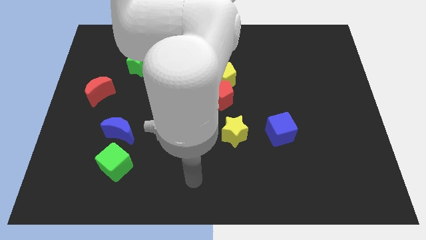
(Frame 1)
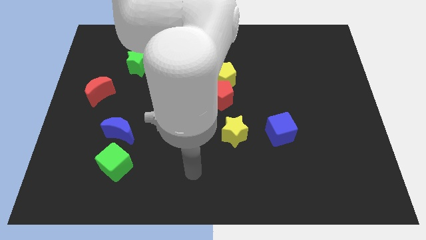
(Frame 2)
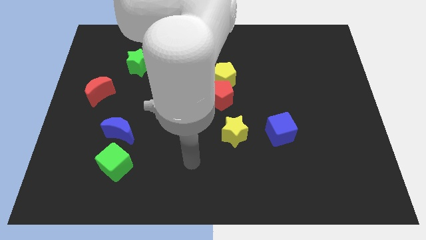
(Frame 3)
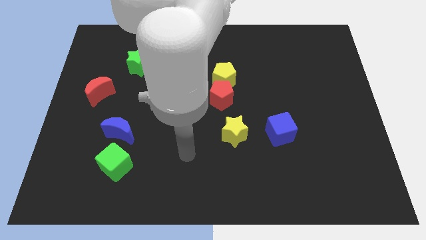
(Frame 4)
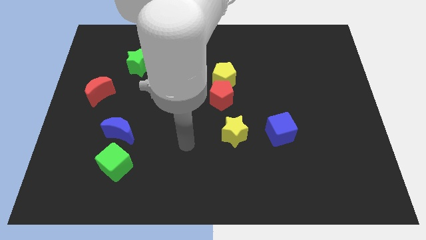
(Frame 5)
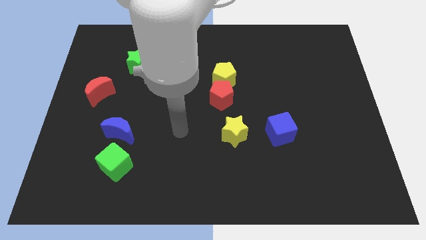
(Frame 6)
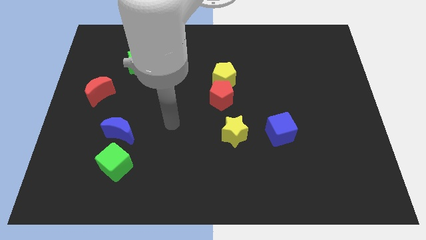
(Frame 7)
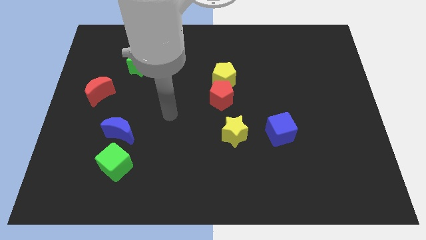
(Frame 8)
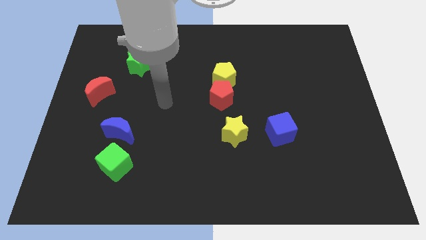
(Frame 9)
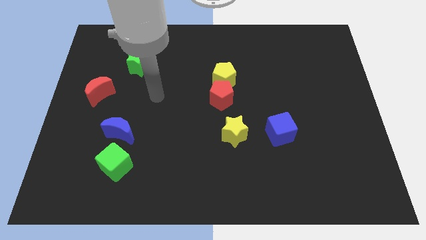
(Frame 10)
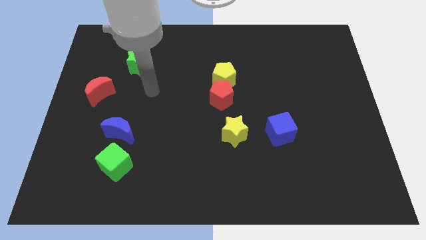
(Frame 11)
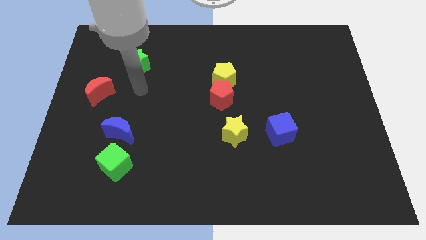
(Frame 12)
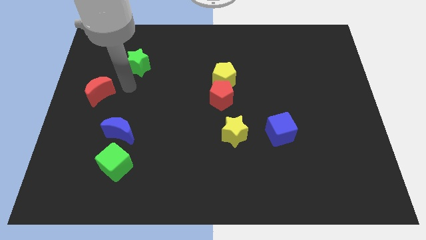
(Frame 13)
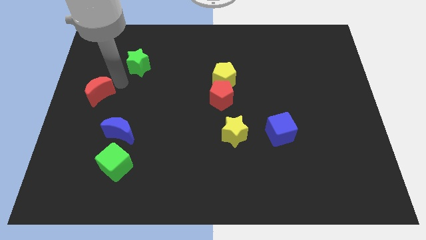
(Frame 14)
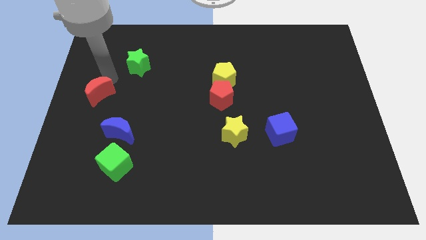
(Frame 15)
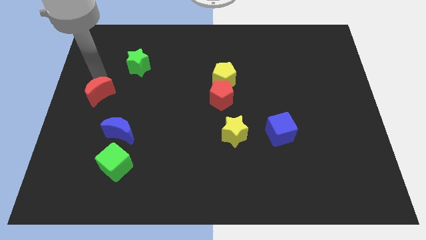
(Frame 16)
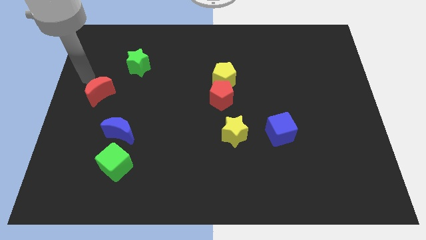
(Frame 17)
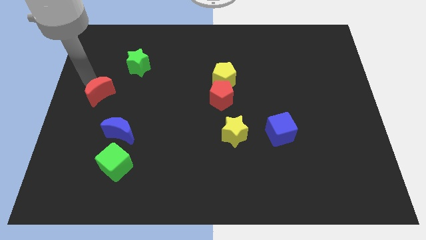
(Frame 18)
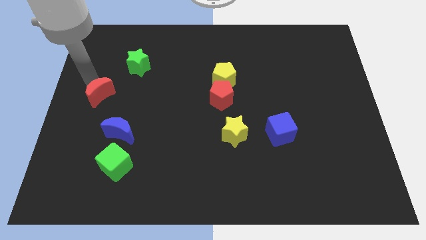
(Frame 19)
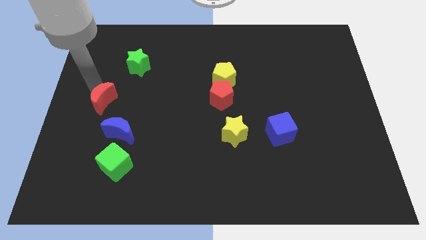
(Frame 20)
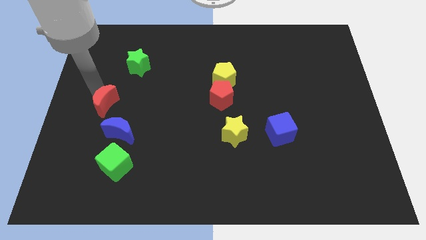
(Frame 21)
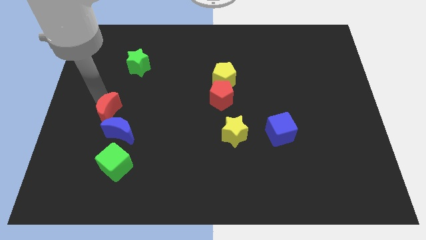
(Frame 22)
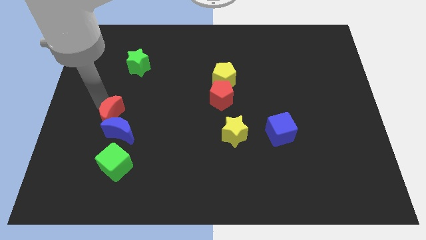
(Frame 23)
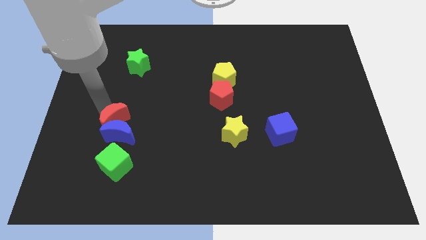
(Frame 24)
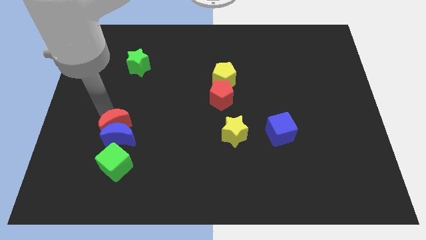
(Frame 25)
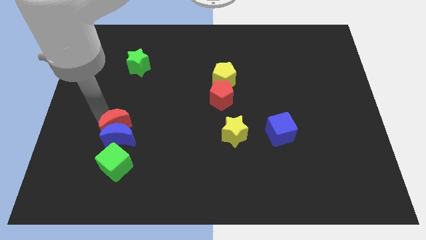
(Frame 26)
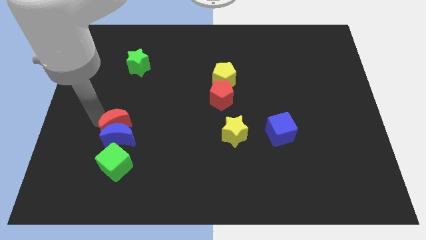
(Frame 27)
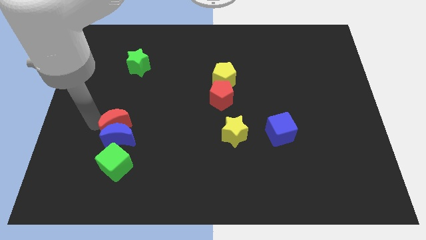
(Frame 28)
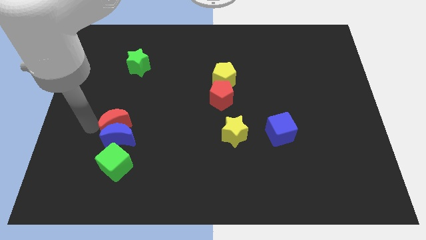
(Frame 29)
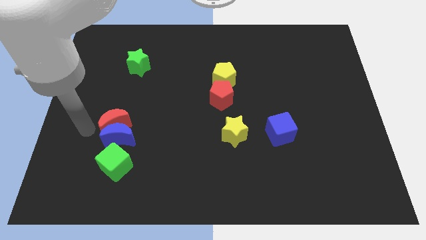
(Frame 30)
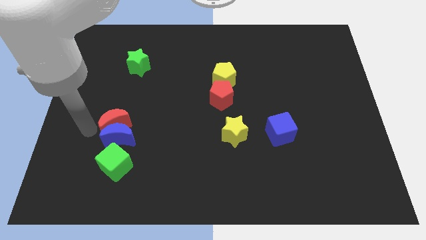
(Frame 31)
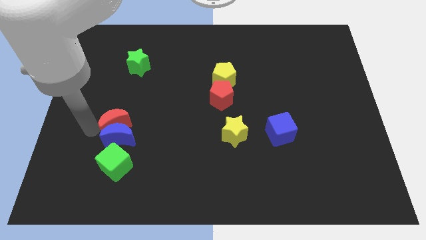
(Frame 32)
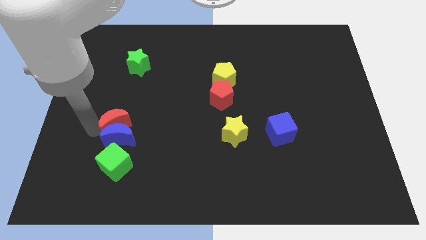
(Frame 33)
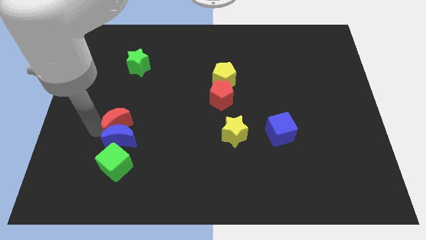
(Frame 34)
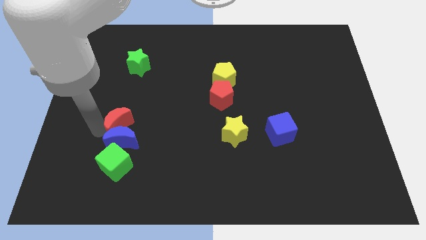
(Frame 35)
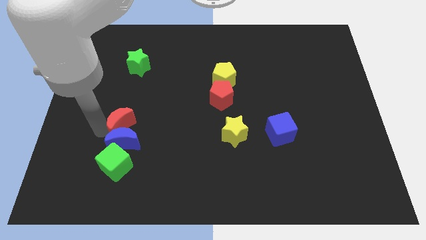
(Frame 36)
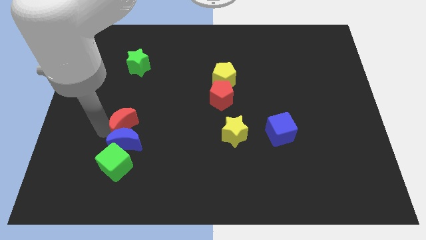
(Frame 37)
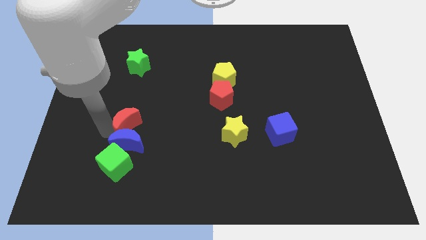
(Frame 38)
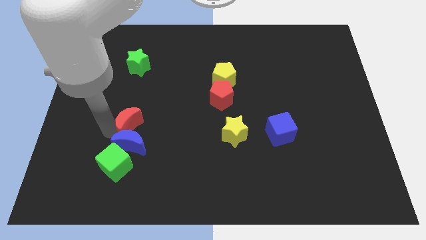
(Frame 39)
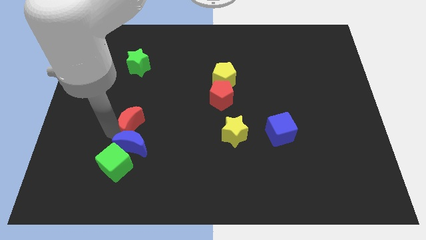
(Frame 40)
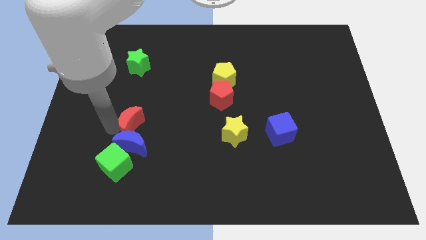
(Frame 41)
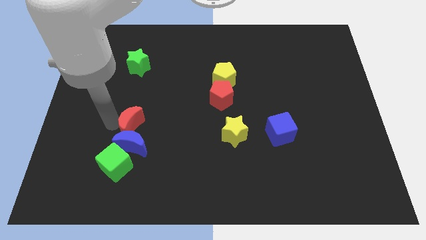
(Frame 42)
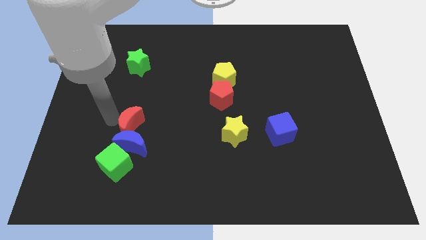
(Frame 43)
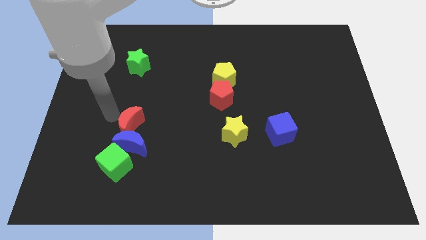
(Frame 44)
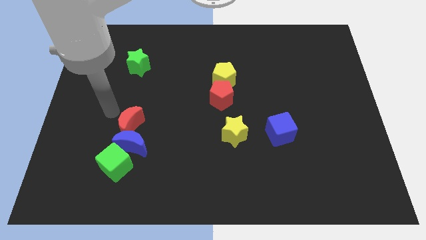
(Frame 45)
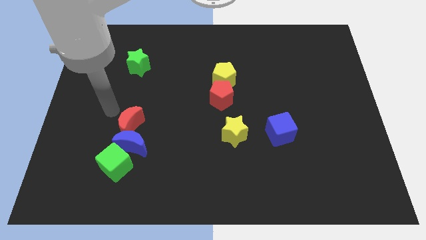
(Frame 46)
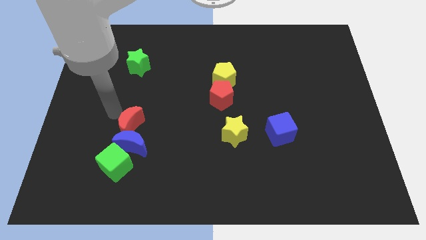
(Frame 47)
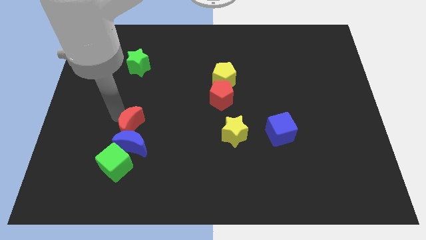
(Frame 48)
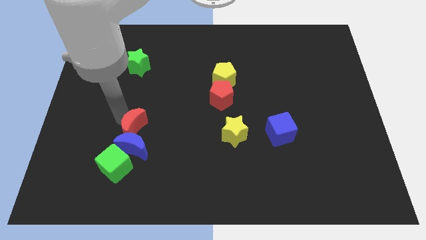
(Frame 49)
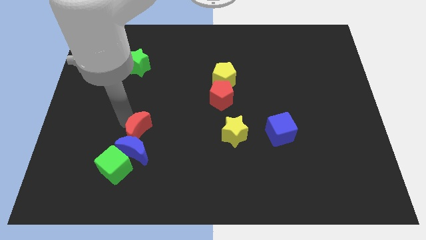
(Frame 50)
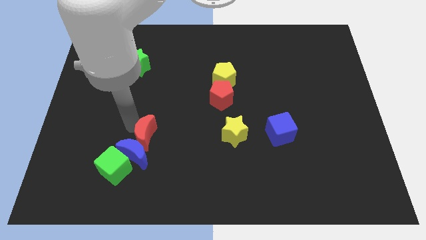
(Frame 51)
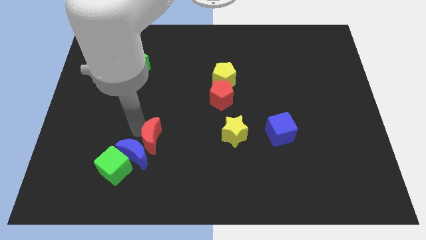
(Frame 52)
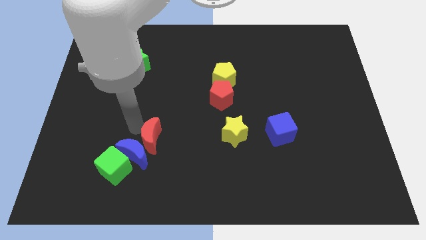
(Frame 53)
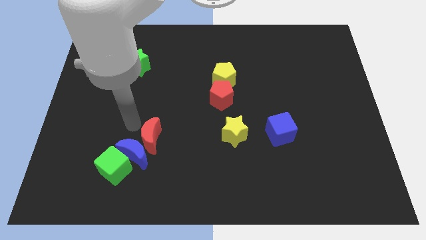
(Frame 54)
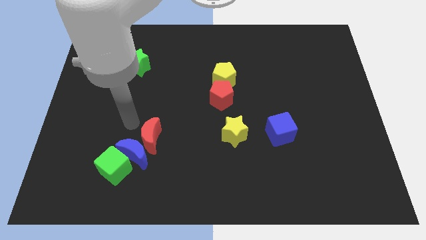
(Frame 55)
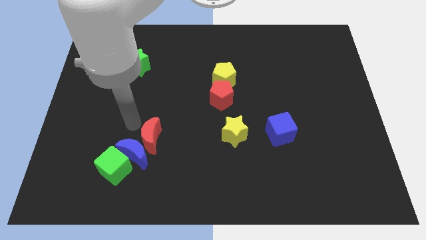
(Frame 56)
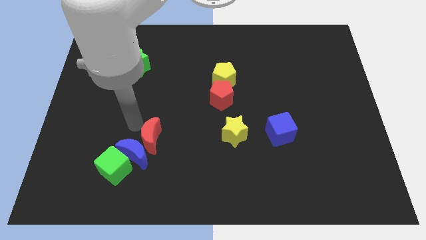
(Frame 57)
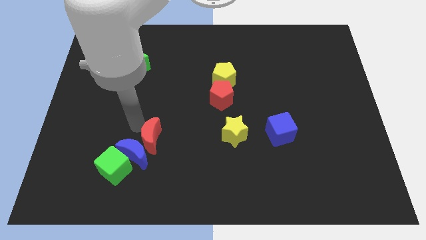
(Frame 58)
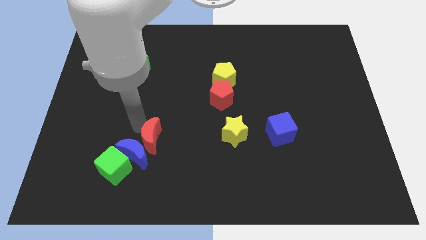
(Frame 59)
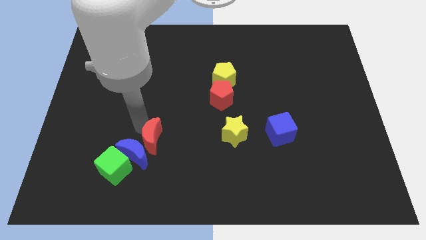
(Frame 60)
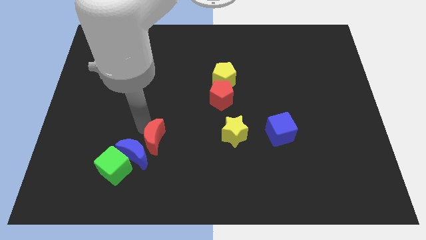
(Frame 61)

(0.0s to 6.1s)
move the red moon downwards and then to the right

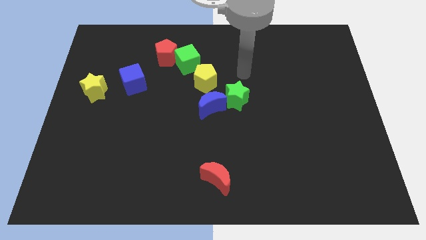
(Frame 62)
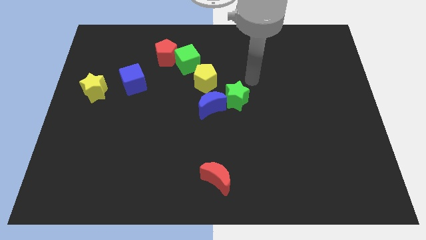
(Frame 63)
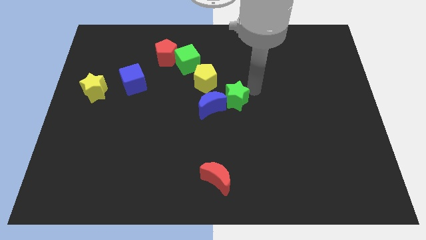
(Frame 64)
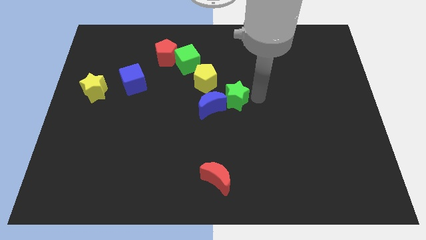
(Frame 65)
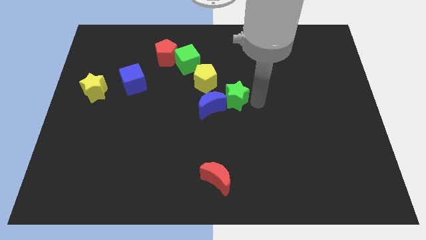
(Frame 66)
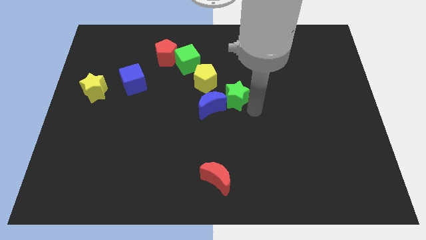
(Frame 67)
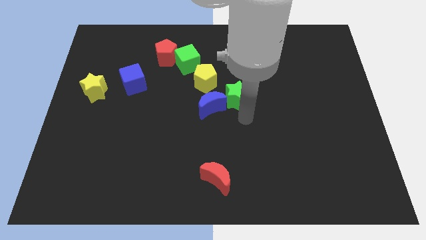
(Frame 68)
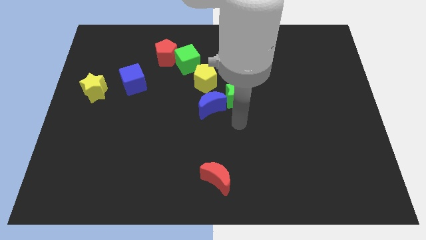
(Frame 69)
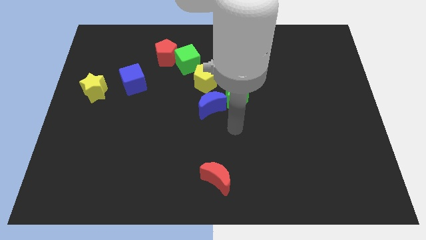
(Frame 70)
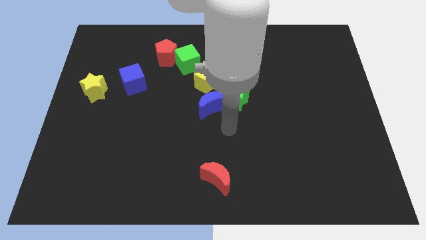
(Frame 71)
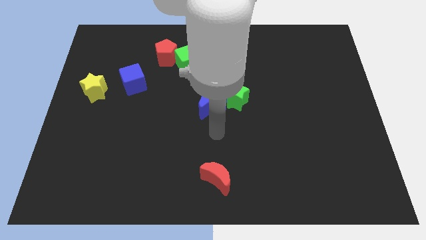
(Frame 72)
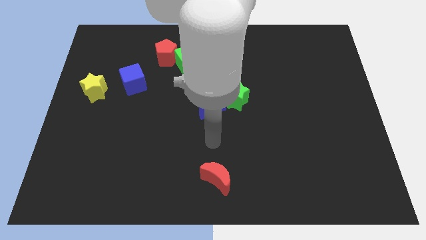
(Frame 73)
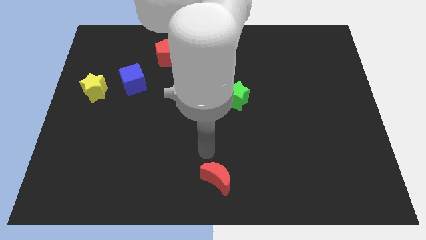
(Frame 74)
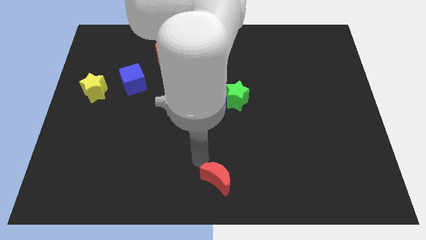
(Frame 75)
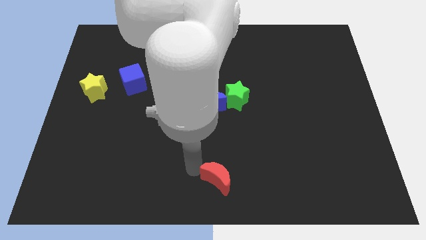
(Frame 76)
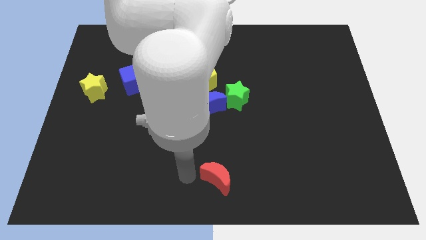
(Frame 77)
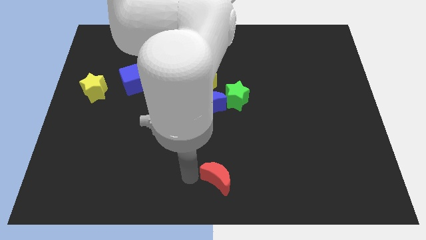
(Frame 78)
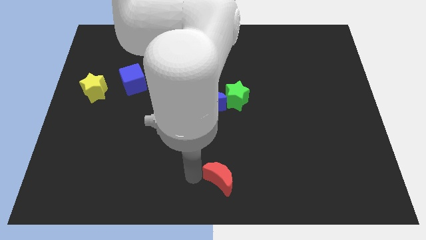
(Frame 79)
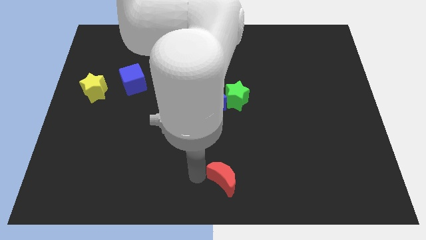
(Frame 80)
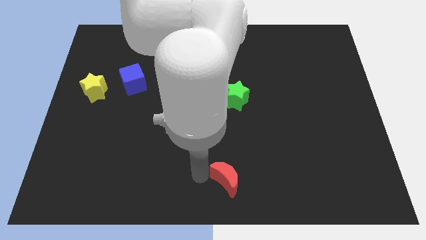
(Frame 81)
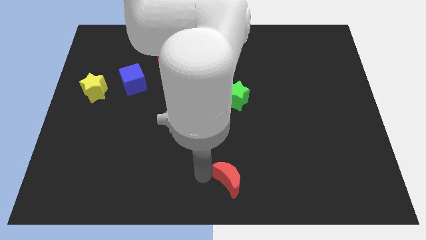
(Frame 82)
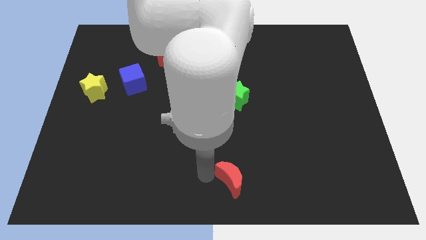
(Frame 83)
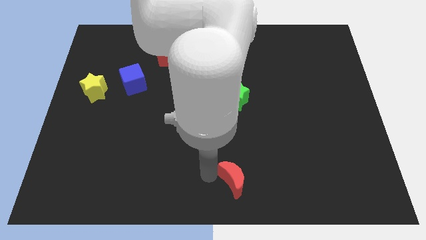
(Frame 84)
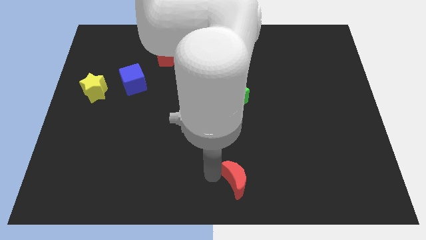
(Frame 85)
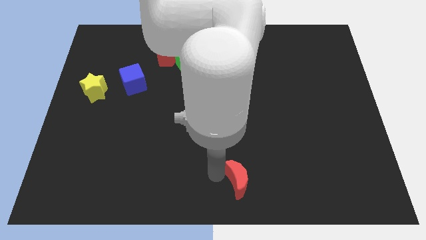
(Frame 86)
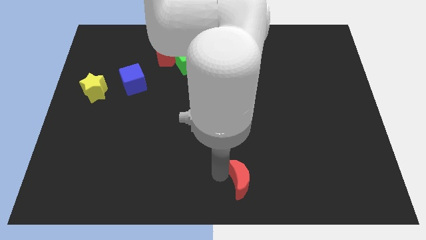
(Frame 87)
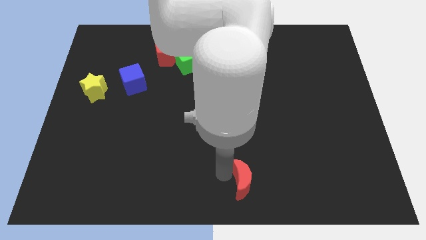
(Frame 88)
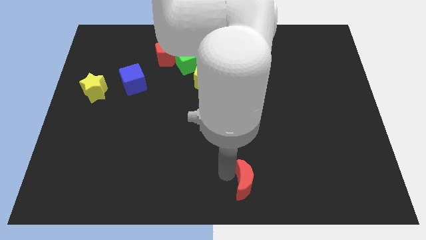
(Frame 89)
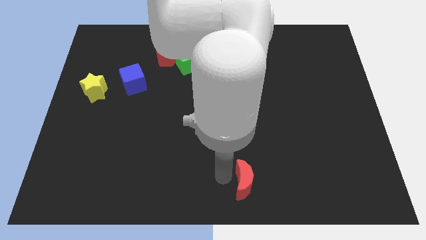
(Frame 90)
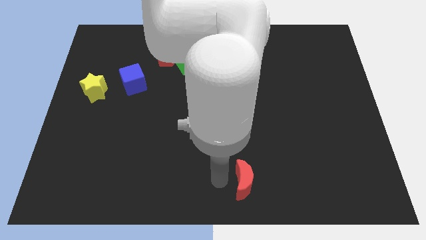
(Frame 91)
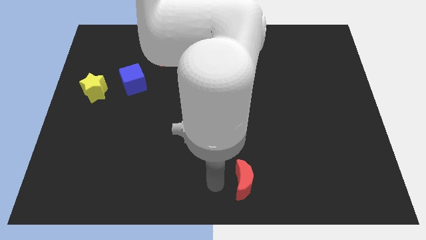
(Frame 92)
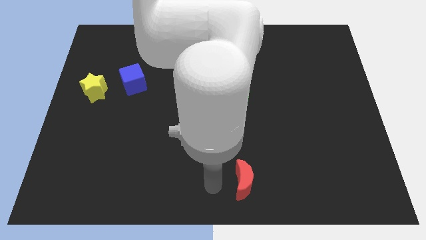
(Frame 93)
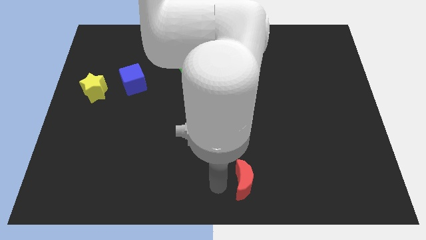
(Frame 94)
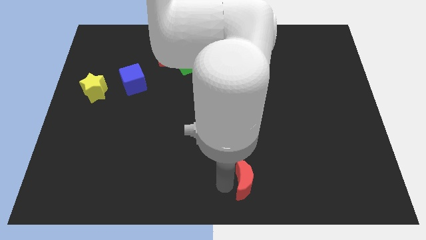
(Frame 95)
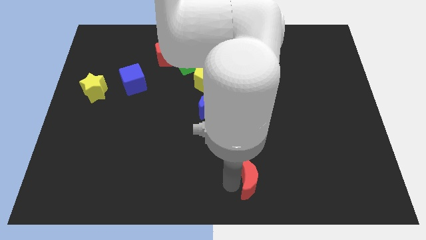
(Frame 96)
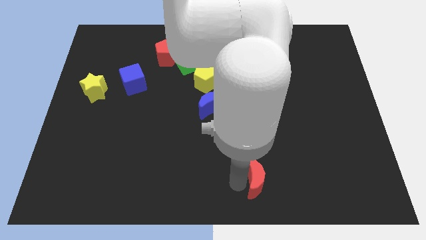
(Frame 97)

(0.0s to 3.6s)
slide the red moon a bit to the right
